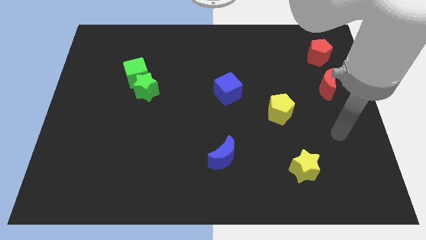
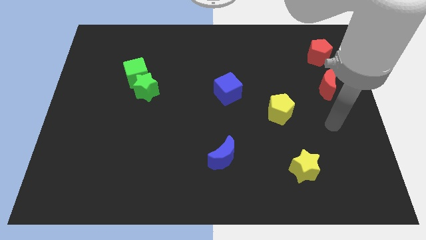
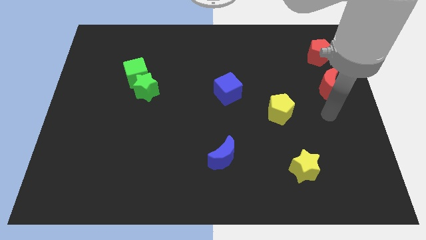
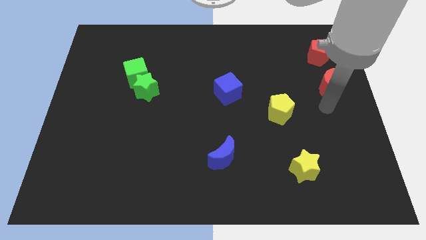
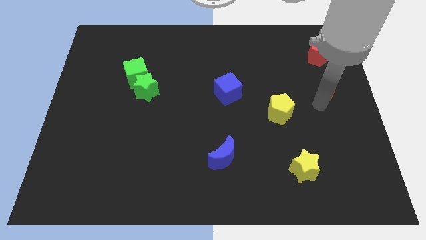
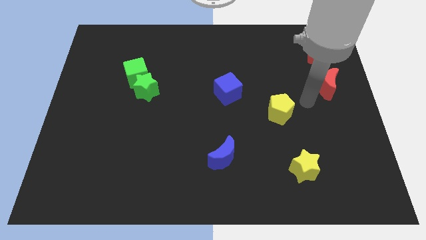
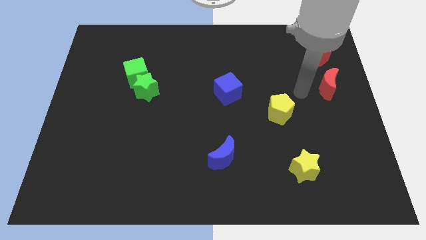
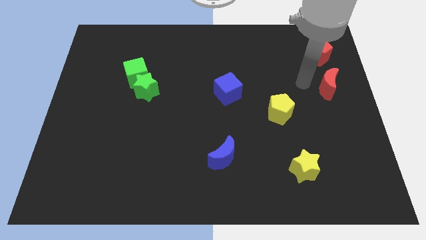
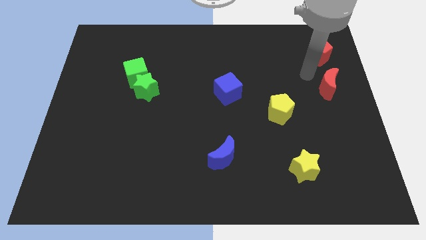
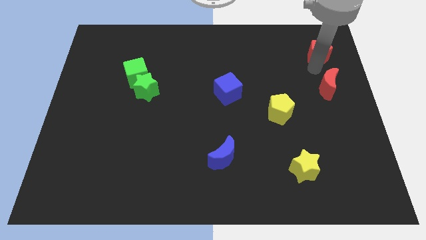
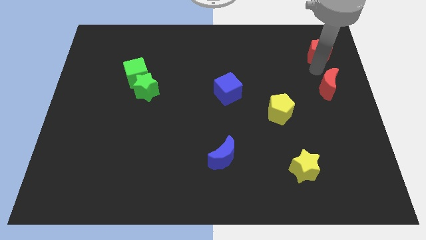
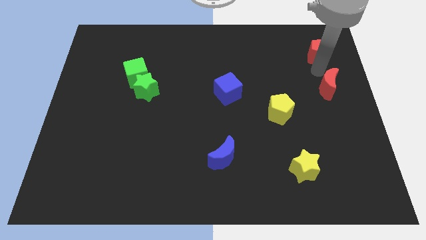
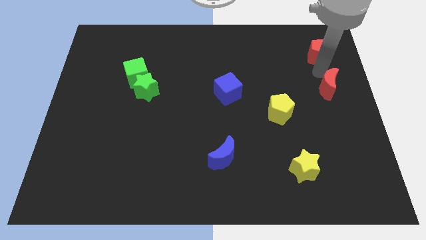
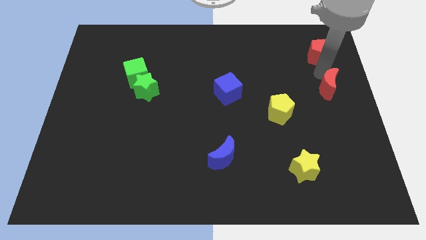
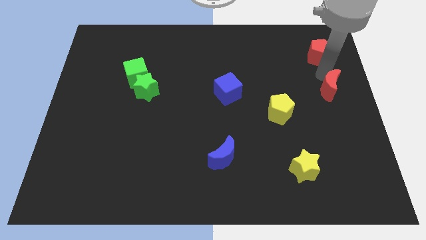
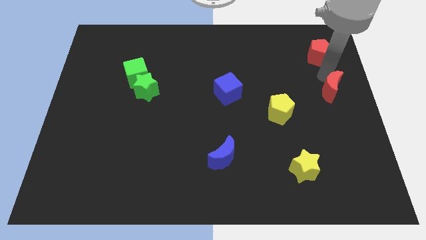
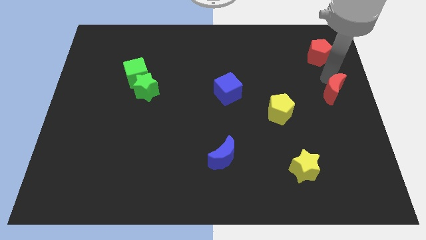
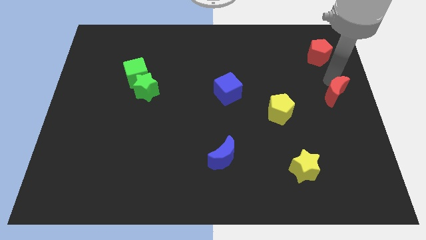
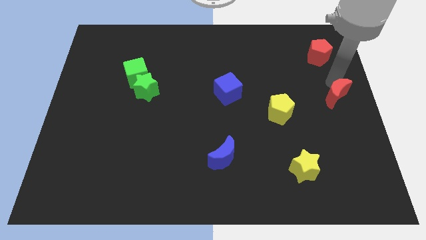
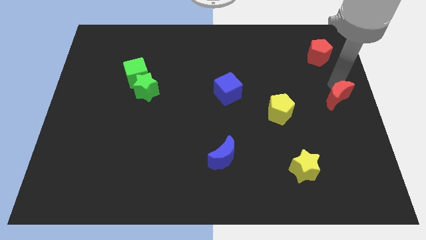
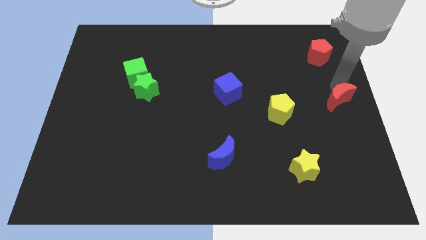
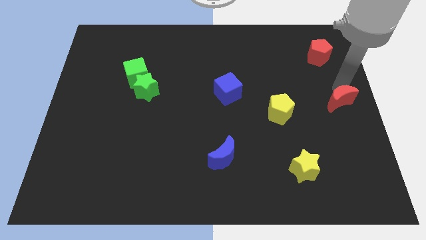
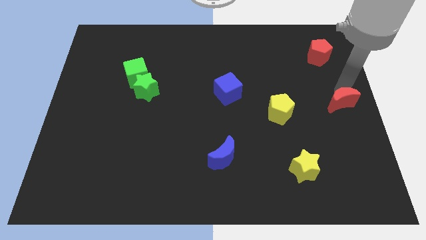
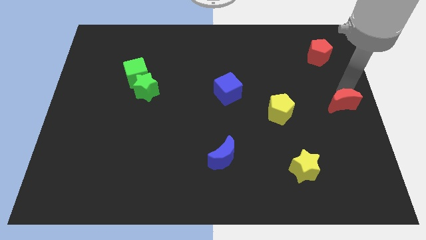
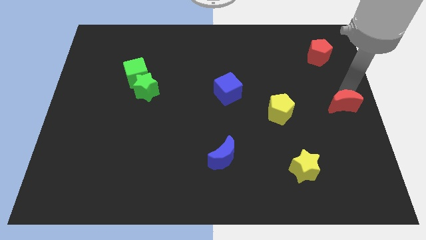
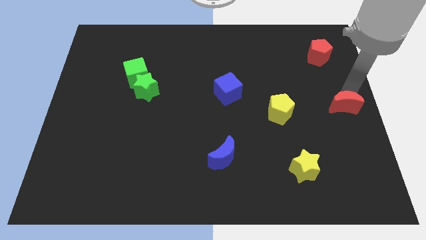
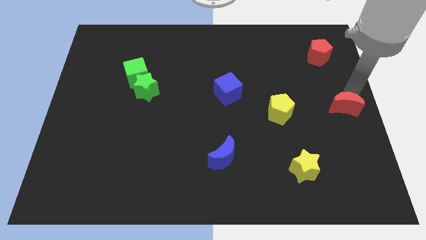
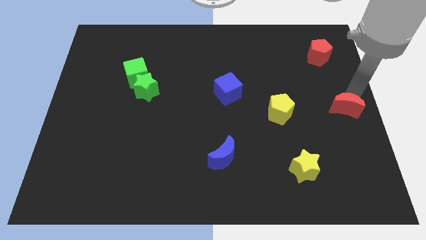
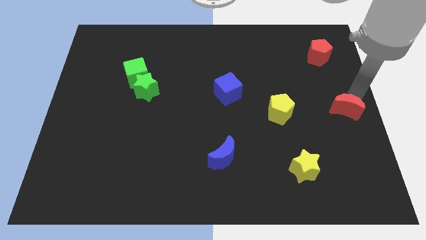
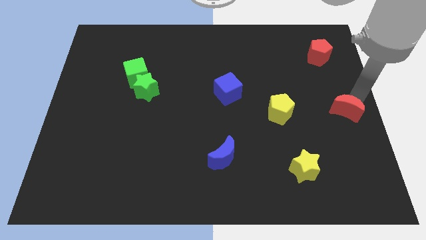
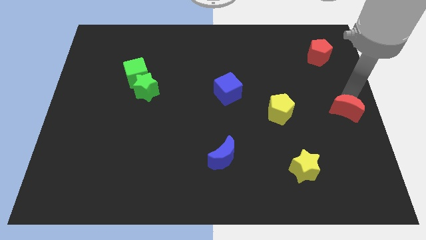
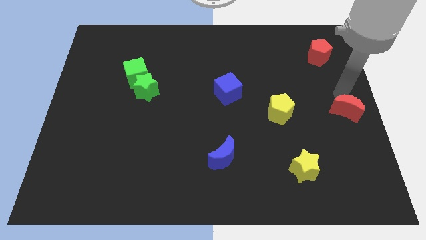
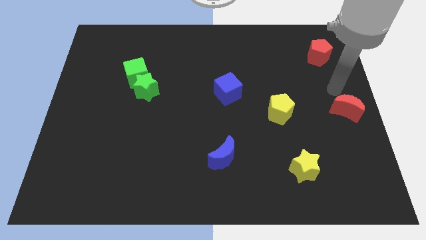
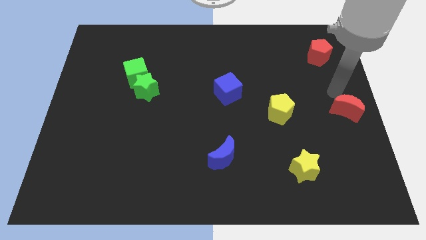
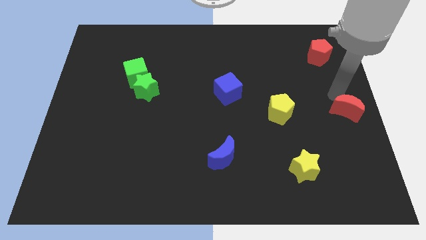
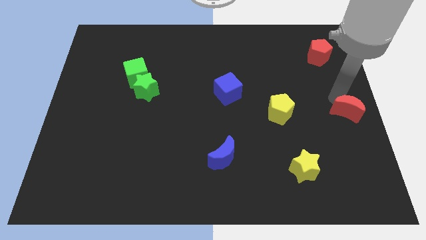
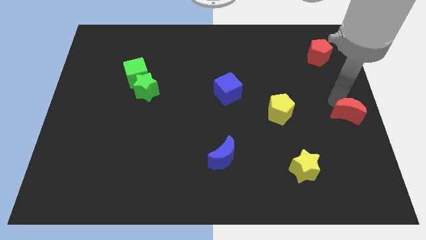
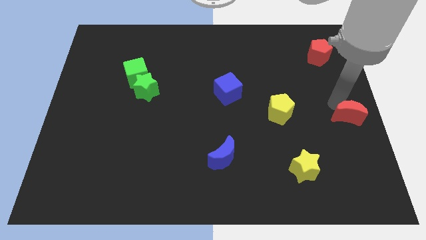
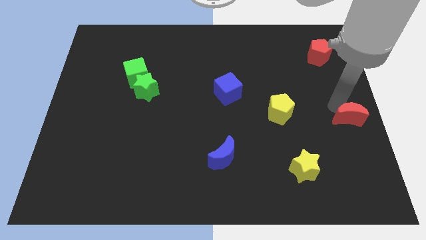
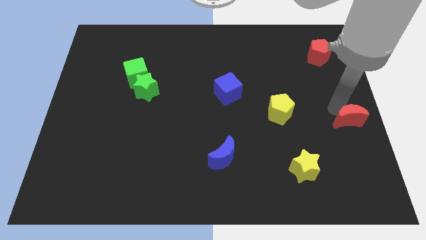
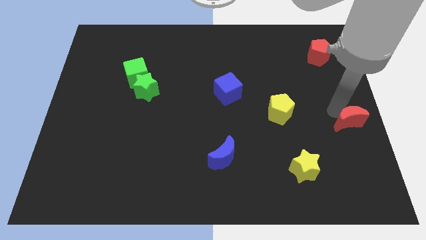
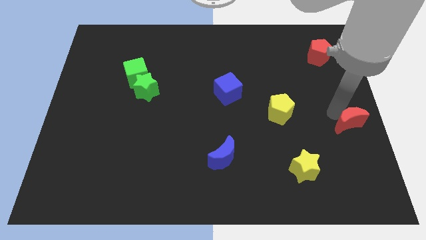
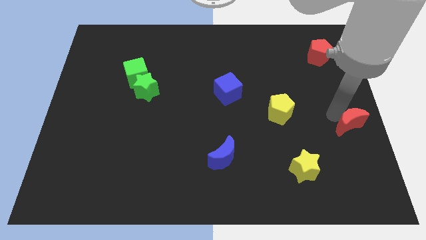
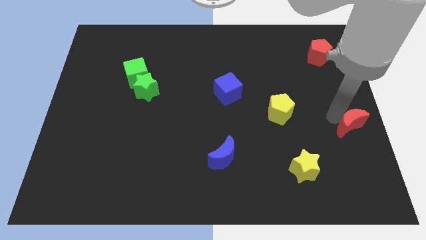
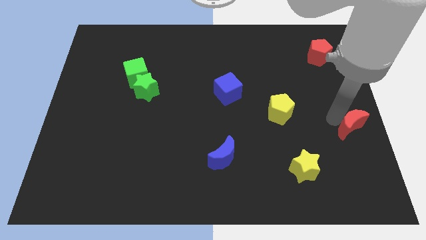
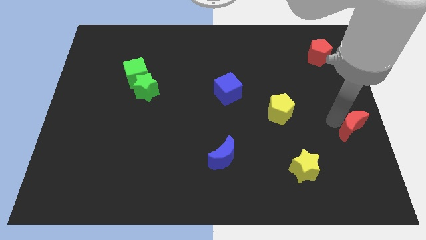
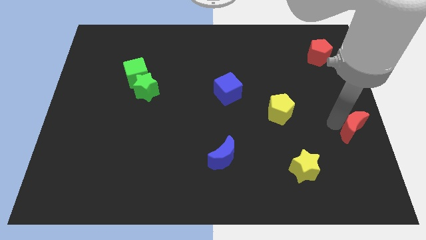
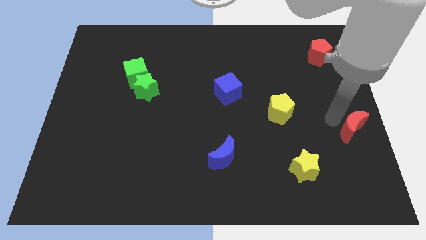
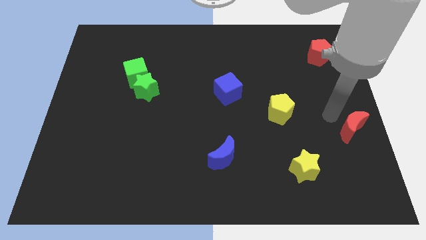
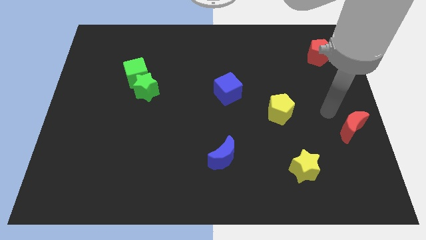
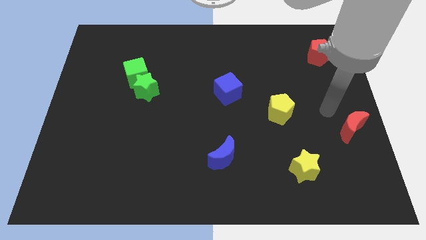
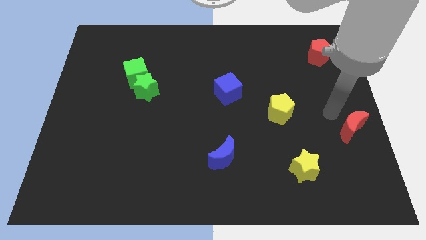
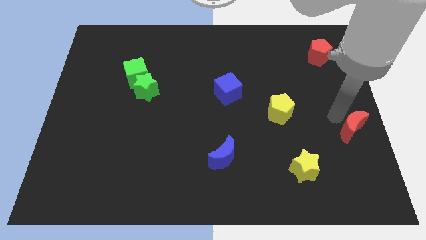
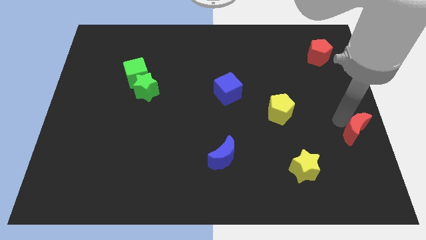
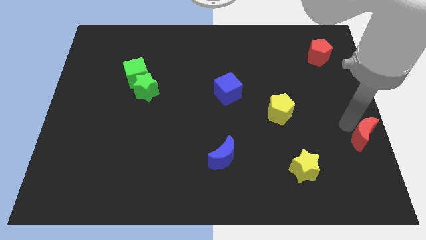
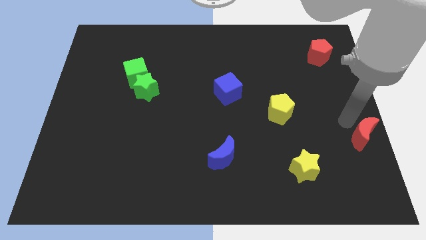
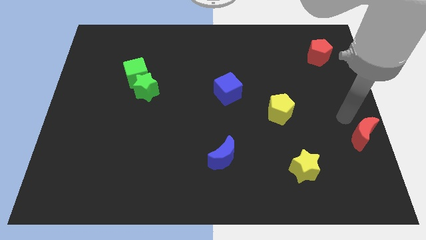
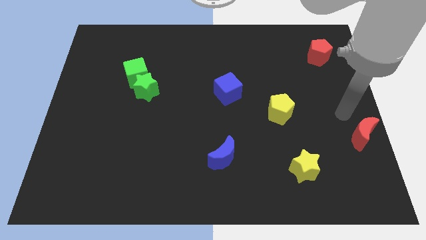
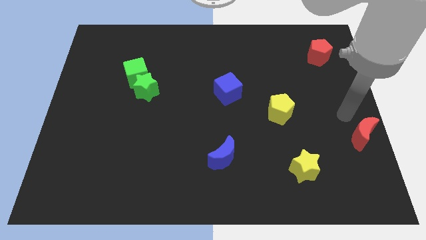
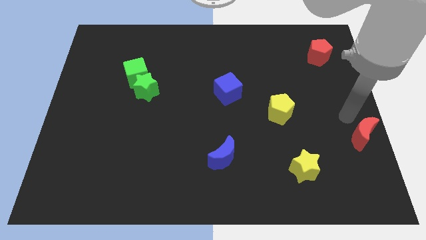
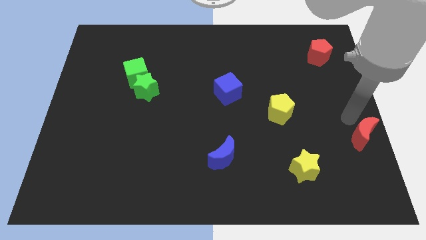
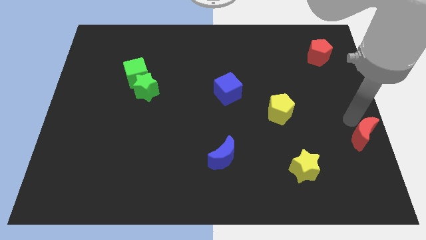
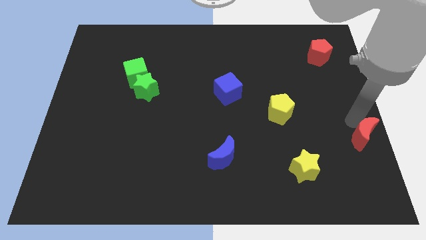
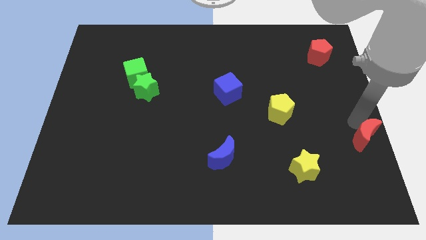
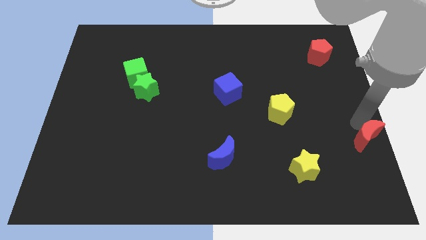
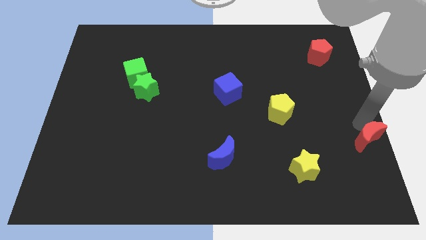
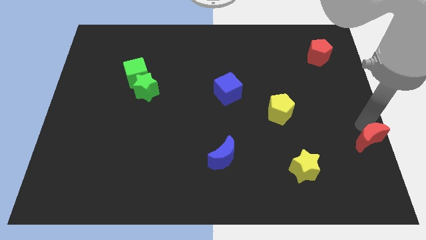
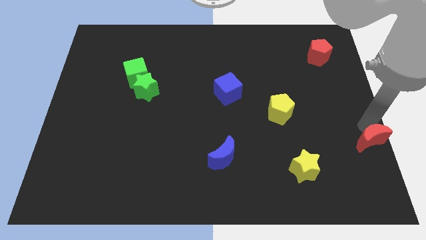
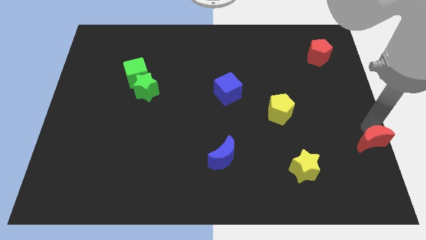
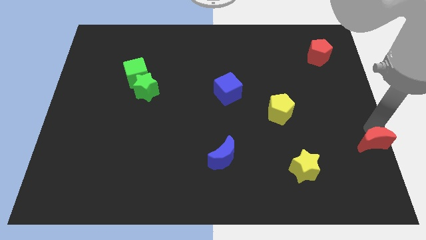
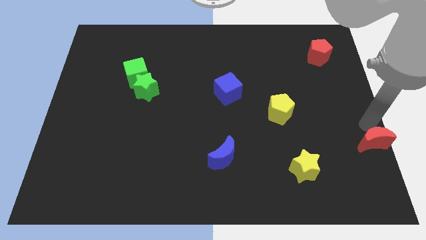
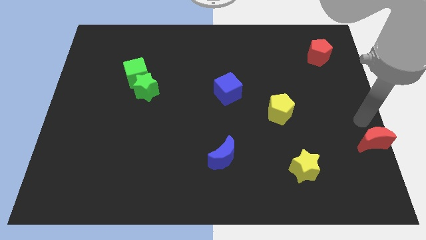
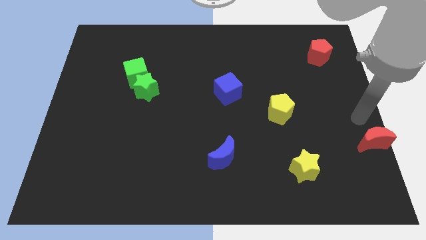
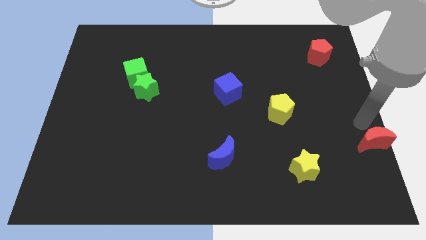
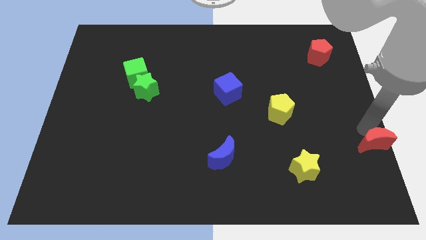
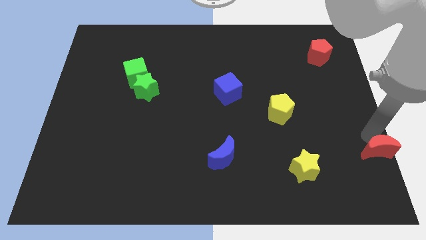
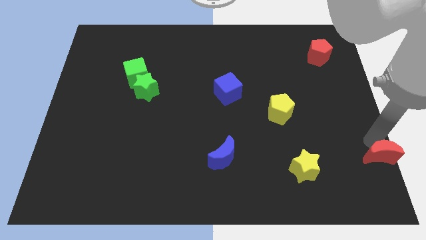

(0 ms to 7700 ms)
push the red moon to the bottom right of the board

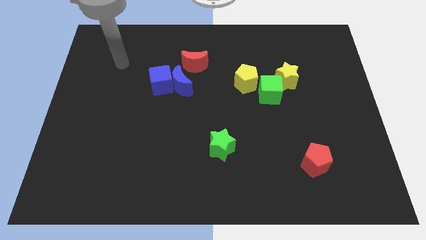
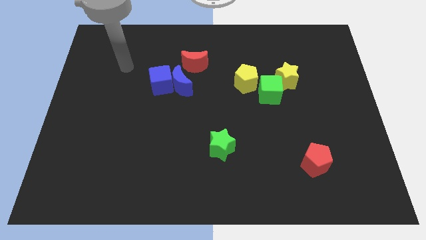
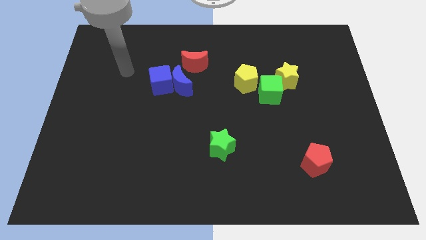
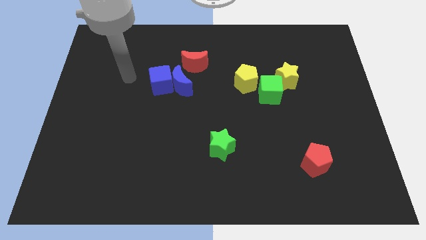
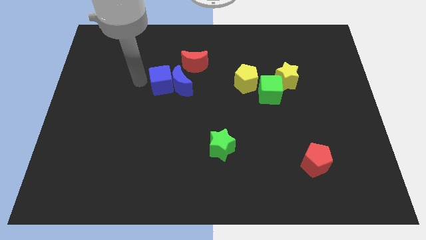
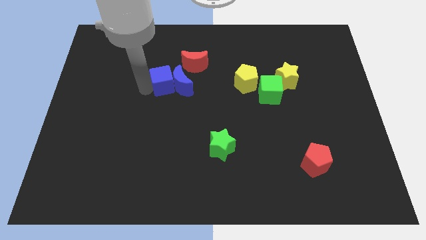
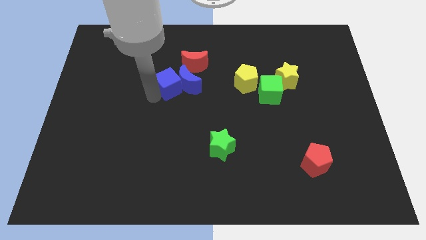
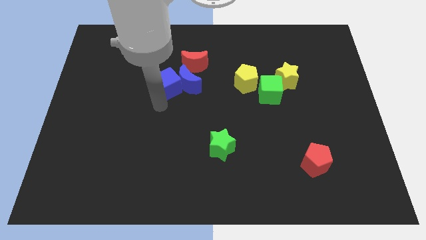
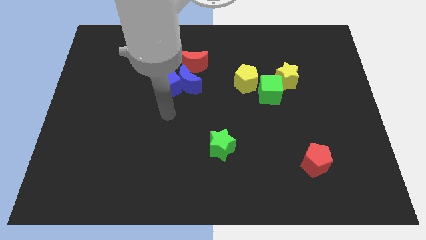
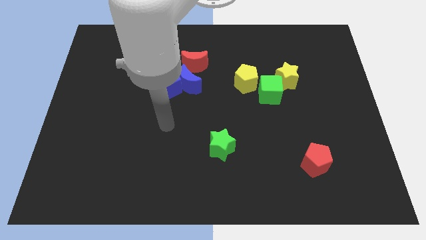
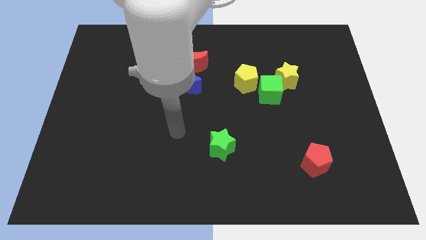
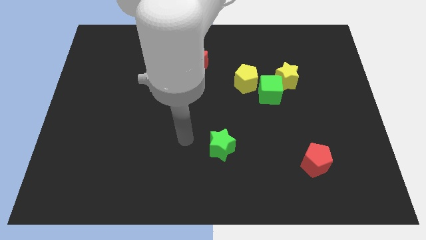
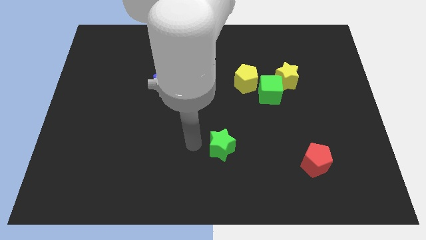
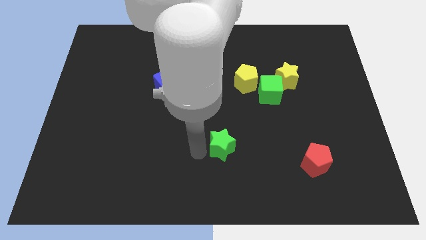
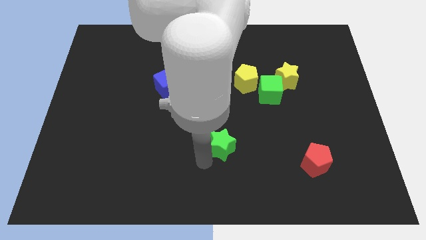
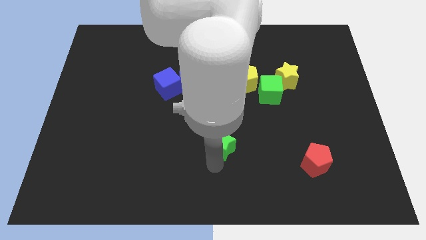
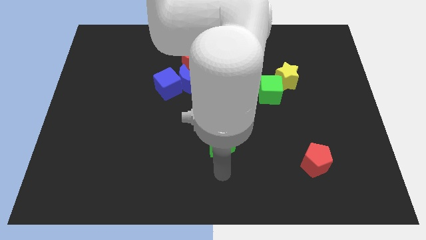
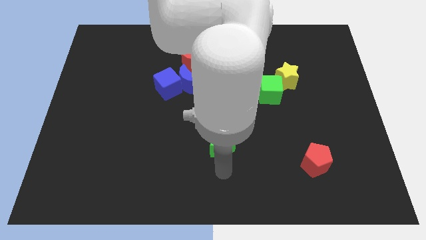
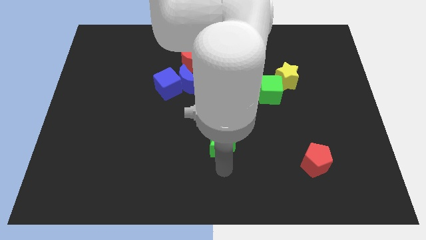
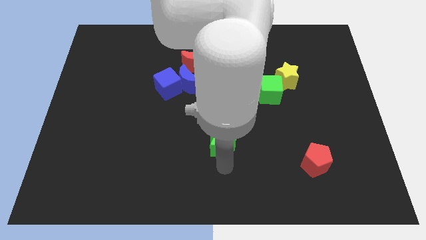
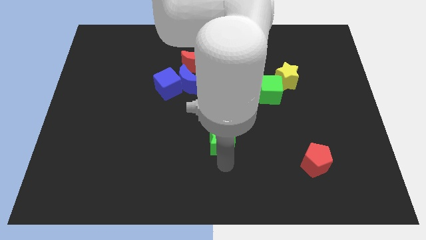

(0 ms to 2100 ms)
move the green star to the center
